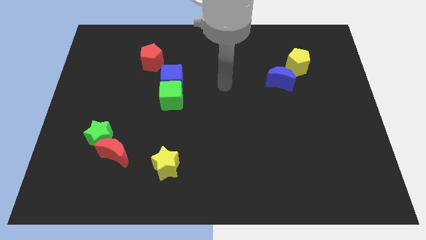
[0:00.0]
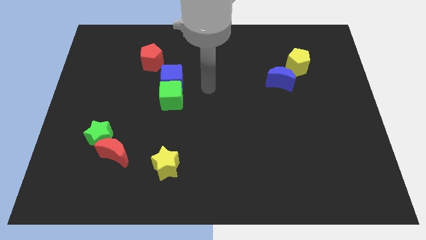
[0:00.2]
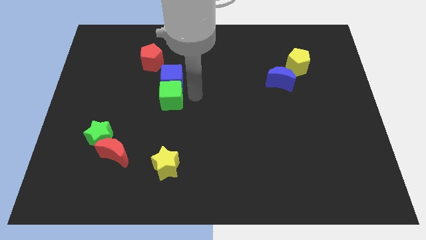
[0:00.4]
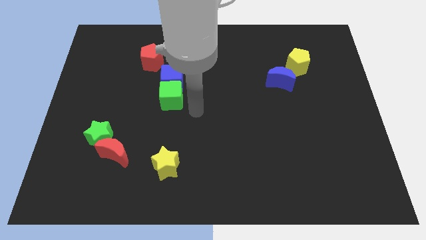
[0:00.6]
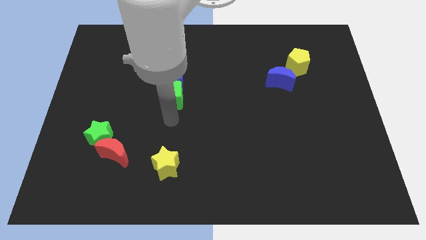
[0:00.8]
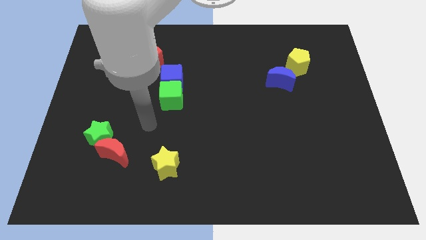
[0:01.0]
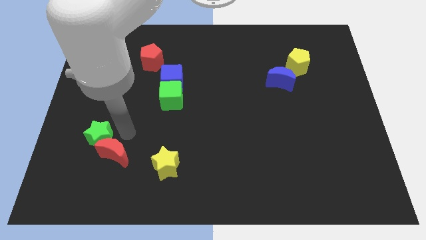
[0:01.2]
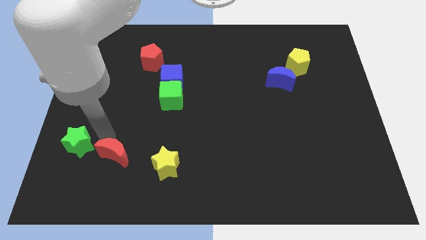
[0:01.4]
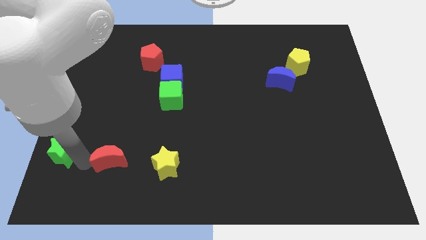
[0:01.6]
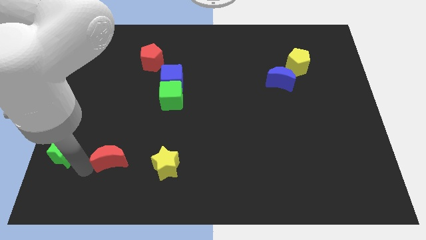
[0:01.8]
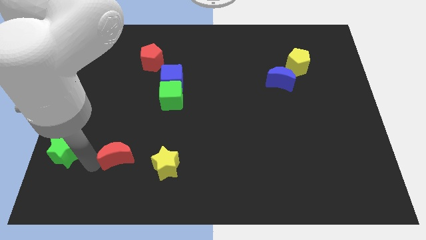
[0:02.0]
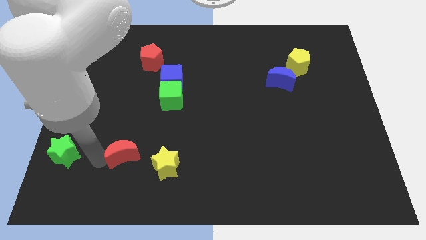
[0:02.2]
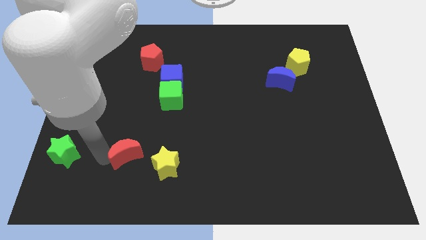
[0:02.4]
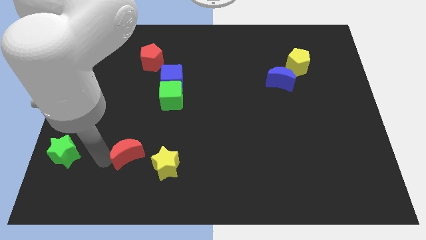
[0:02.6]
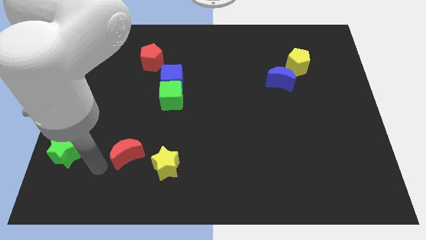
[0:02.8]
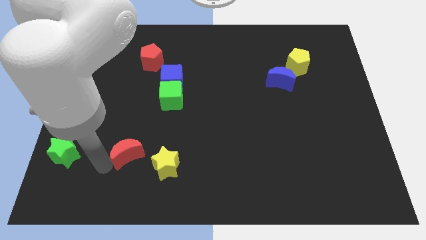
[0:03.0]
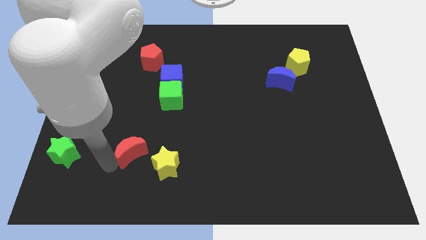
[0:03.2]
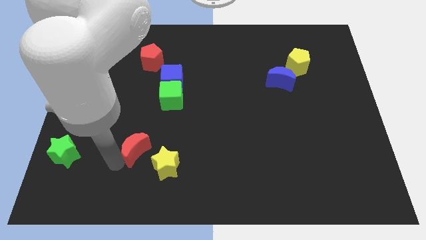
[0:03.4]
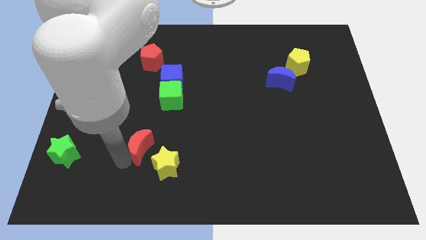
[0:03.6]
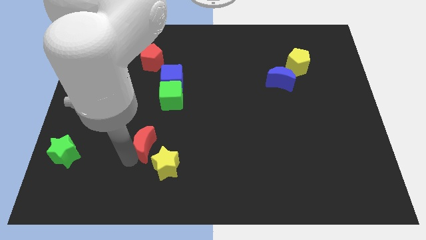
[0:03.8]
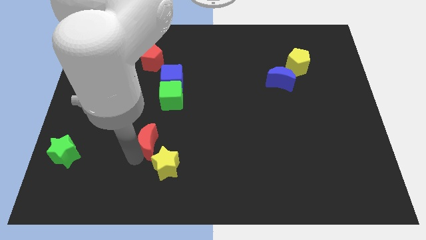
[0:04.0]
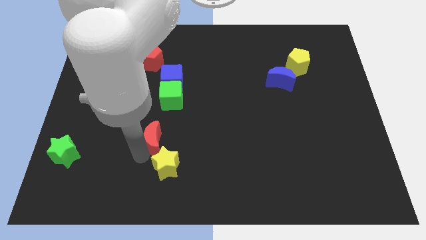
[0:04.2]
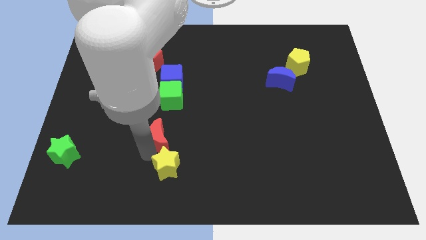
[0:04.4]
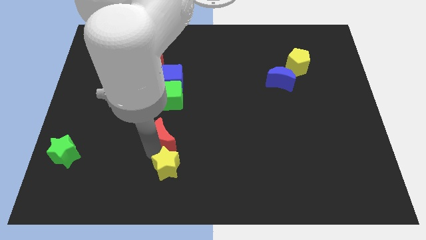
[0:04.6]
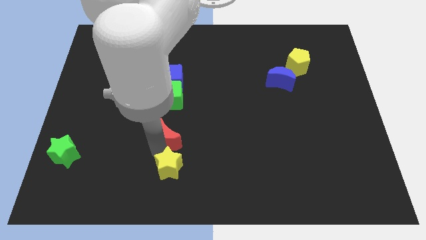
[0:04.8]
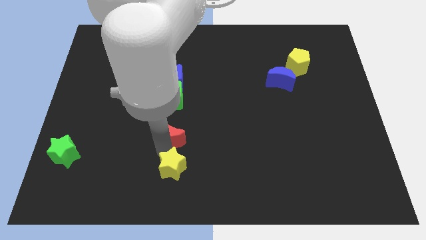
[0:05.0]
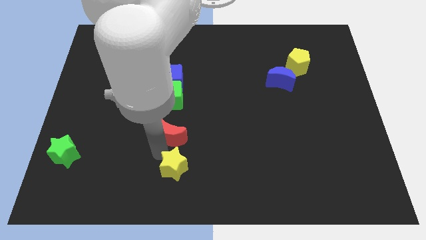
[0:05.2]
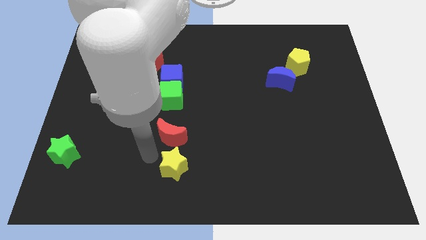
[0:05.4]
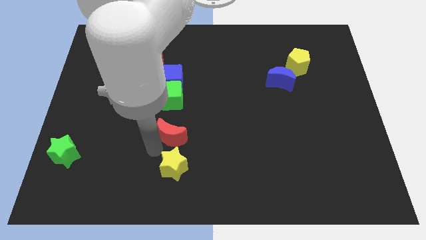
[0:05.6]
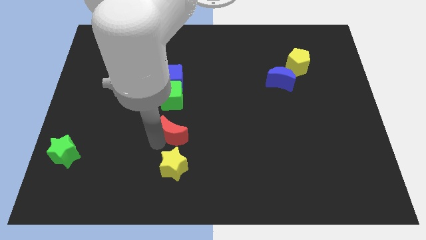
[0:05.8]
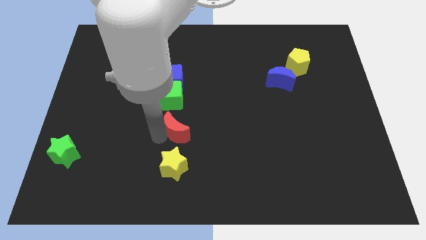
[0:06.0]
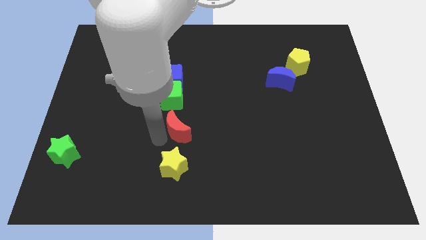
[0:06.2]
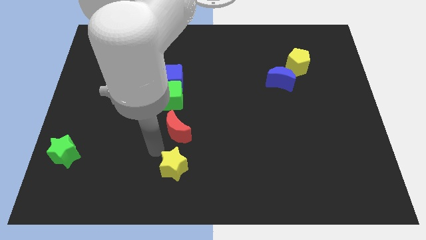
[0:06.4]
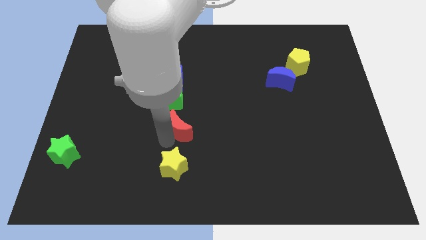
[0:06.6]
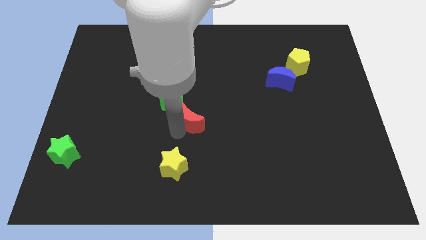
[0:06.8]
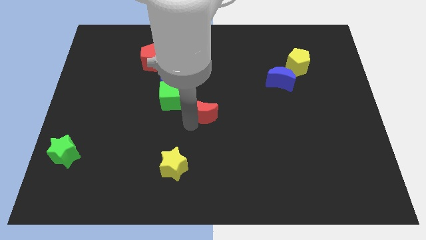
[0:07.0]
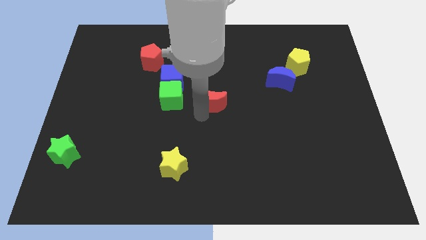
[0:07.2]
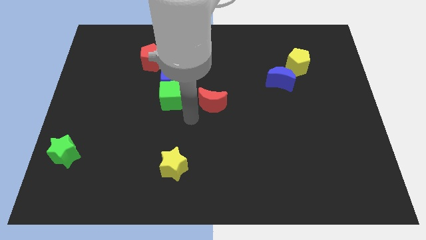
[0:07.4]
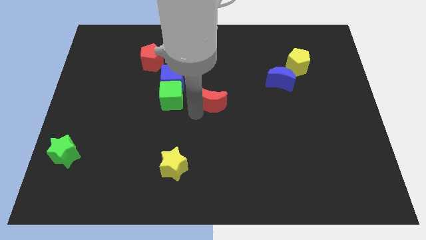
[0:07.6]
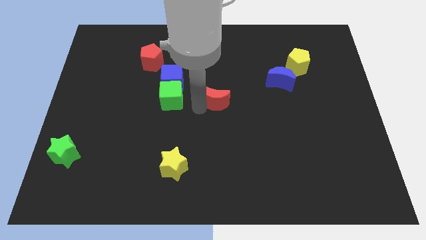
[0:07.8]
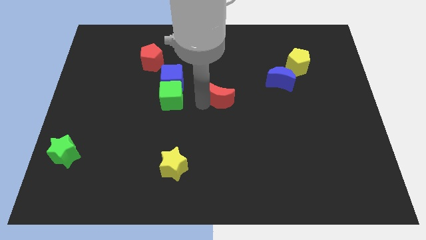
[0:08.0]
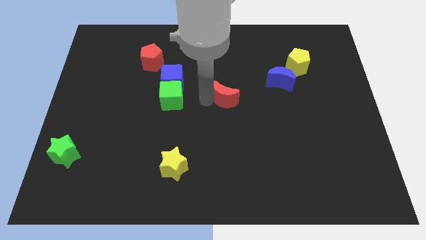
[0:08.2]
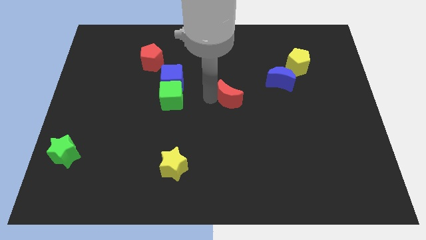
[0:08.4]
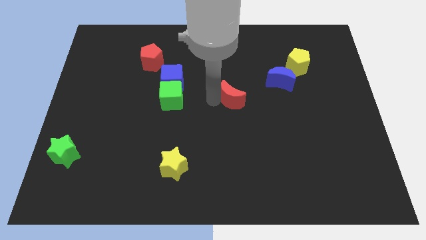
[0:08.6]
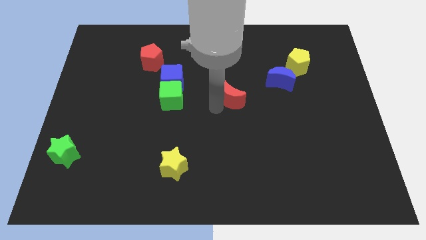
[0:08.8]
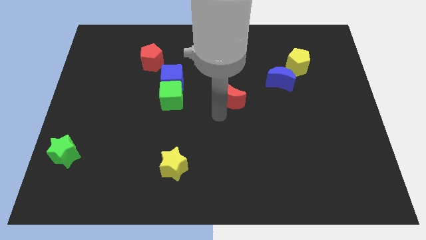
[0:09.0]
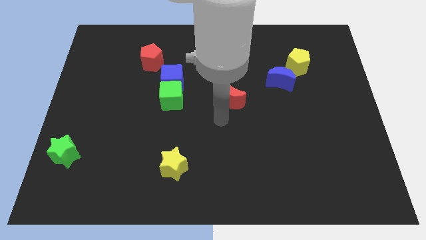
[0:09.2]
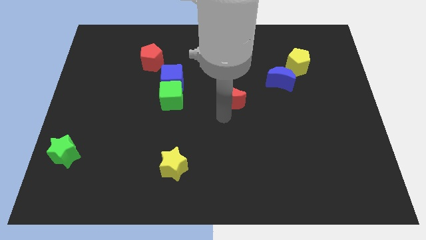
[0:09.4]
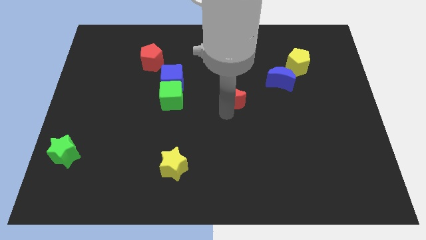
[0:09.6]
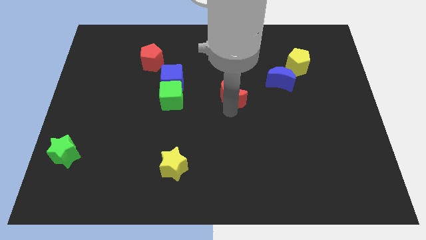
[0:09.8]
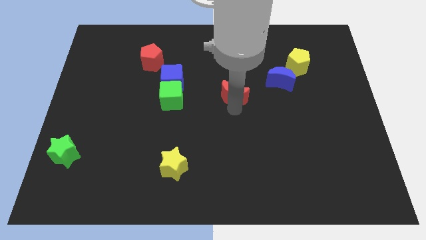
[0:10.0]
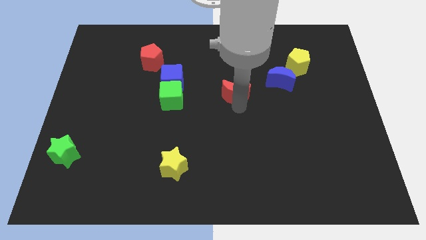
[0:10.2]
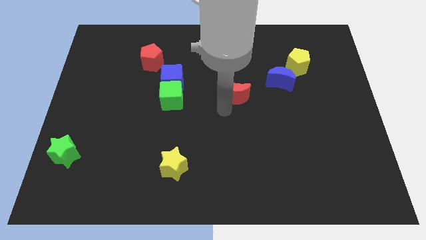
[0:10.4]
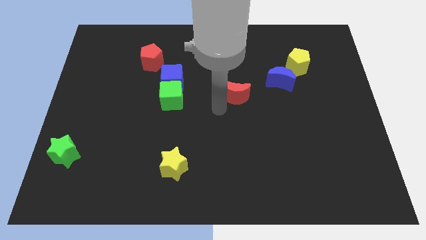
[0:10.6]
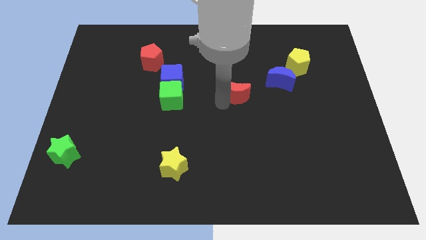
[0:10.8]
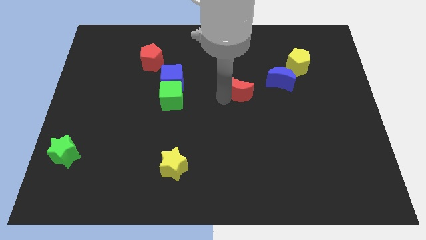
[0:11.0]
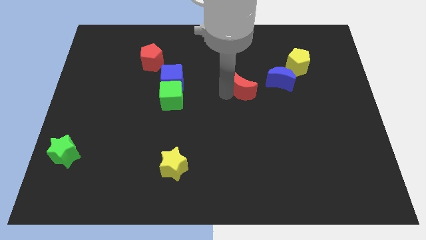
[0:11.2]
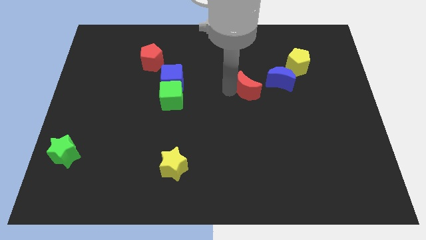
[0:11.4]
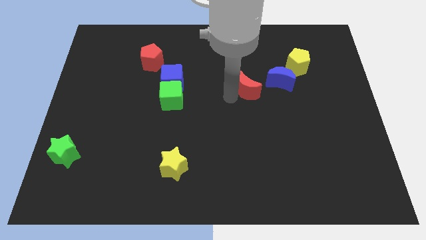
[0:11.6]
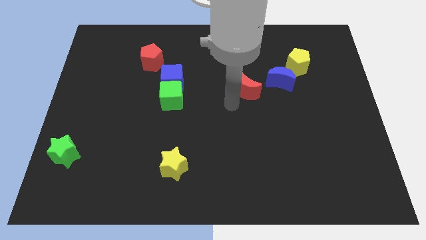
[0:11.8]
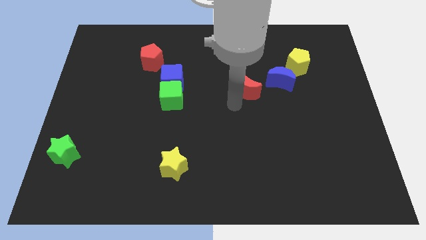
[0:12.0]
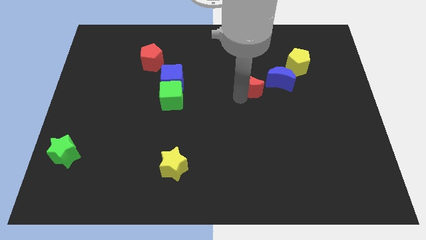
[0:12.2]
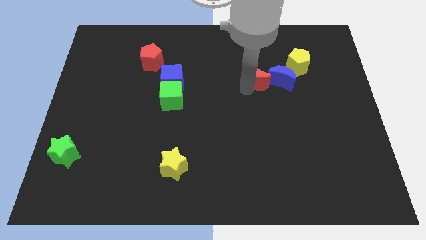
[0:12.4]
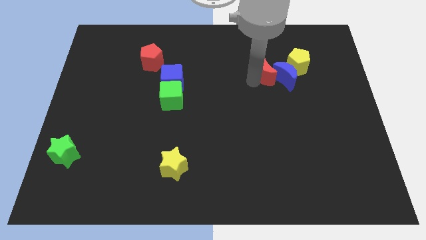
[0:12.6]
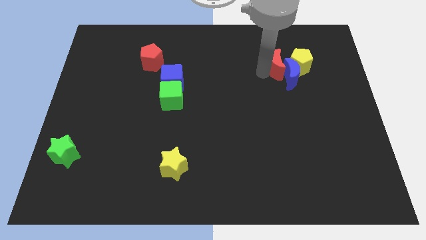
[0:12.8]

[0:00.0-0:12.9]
put the red moon next to the yellow pentagon

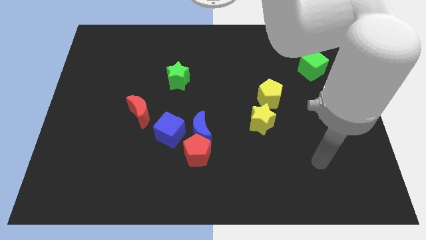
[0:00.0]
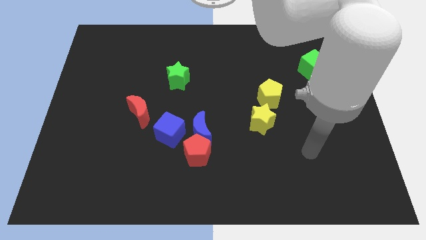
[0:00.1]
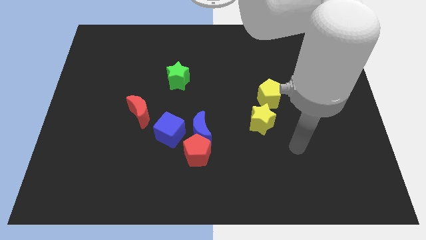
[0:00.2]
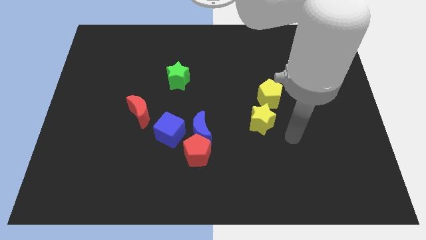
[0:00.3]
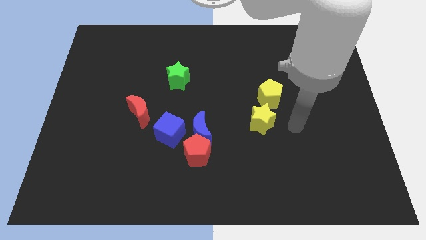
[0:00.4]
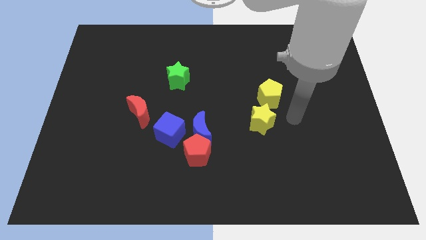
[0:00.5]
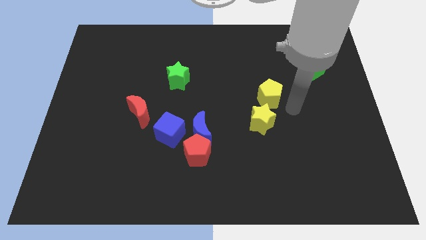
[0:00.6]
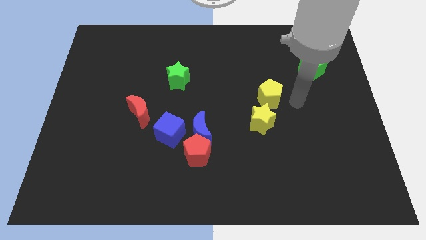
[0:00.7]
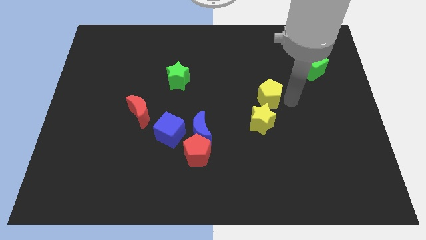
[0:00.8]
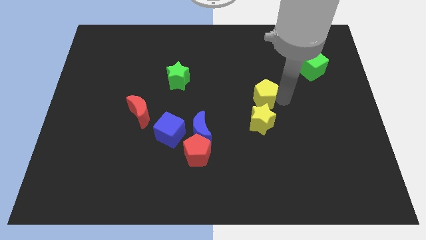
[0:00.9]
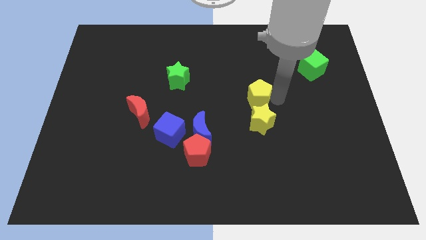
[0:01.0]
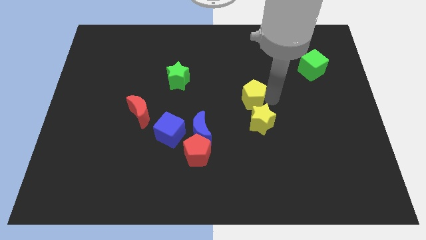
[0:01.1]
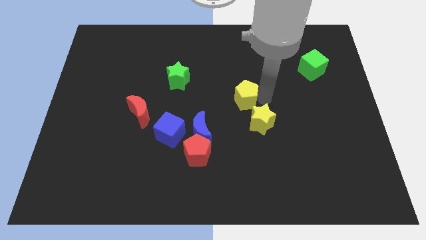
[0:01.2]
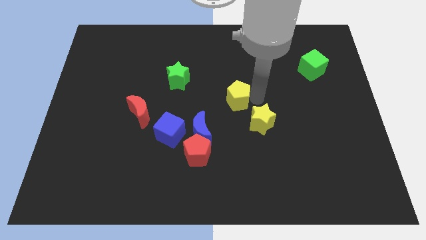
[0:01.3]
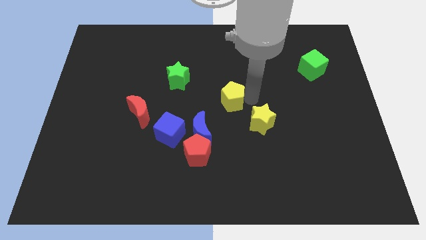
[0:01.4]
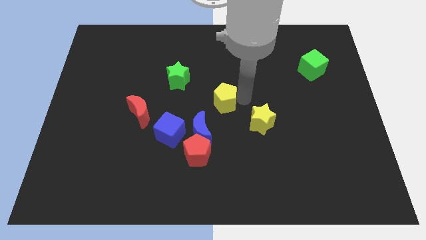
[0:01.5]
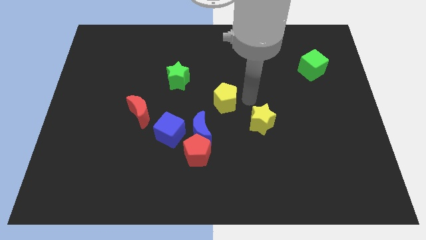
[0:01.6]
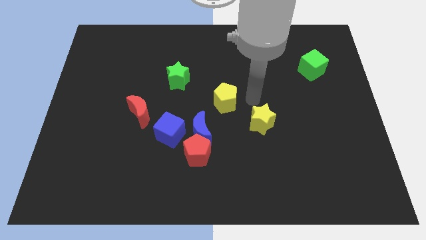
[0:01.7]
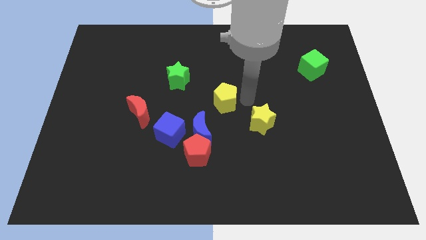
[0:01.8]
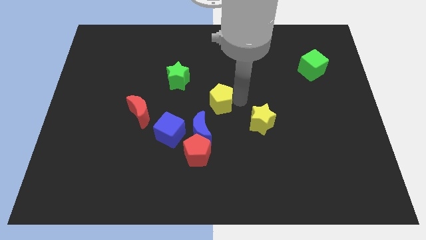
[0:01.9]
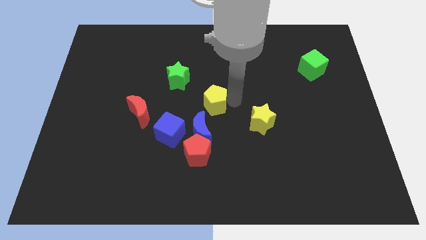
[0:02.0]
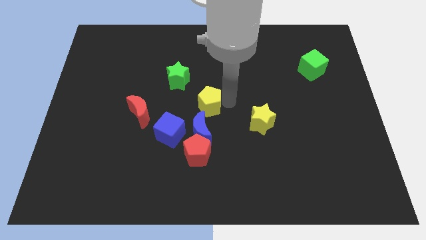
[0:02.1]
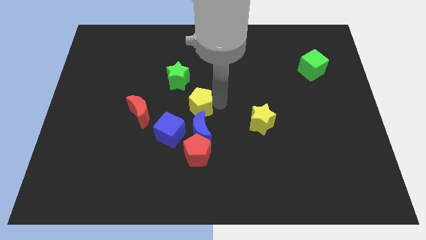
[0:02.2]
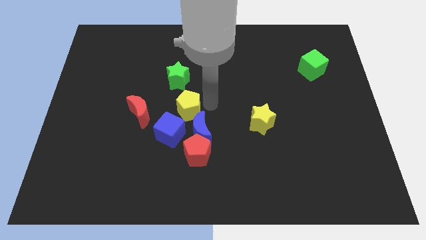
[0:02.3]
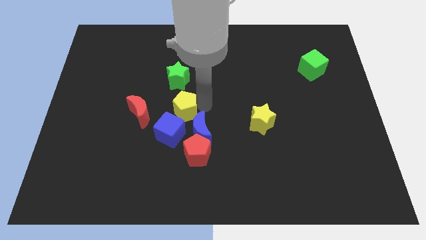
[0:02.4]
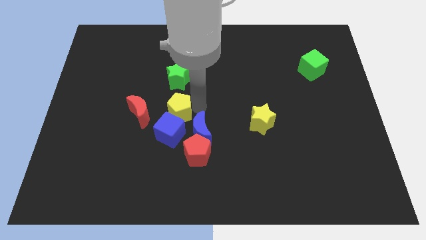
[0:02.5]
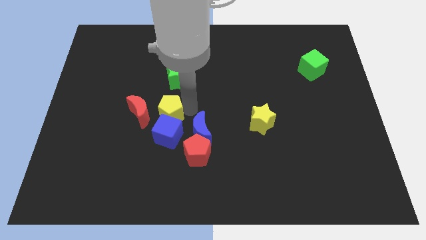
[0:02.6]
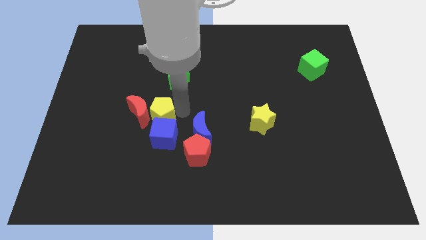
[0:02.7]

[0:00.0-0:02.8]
put the yellow pentagon next to the red moon
